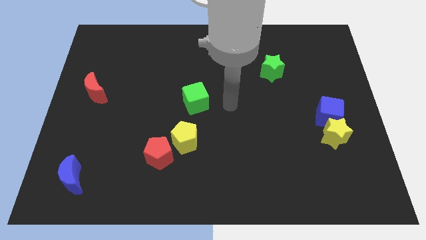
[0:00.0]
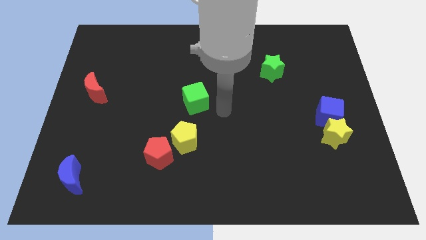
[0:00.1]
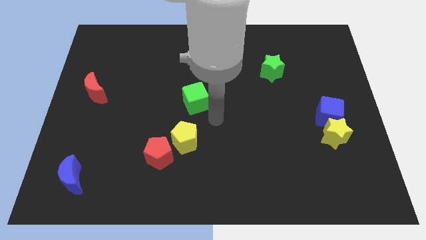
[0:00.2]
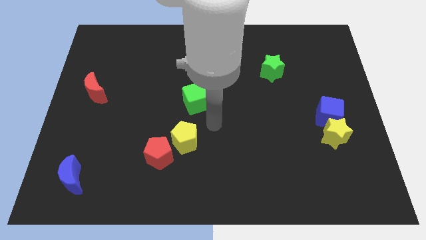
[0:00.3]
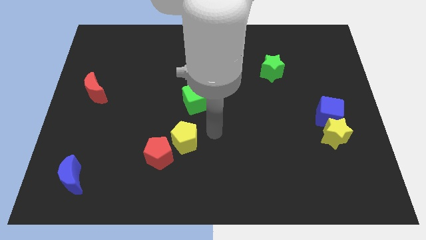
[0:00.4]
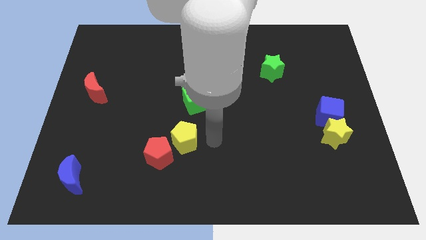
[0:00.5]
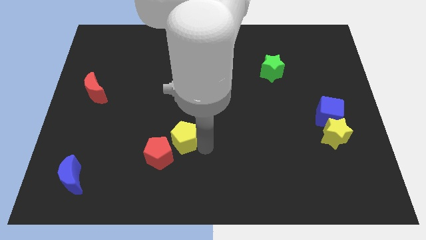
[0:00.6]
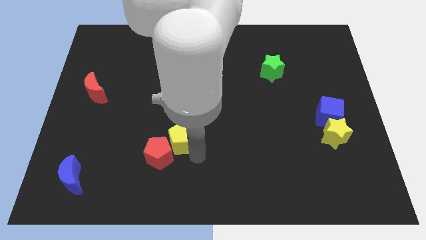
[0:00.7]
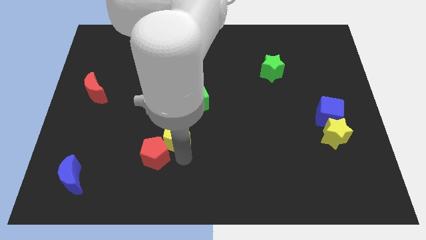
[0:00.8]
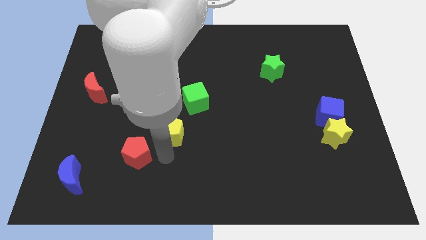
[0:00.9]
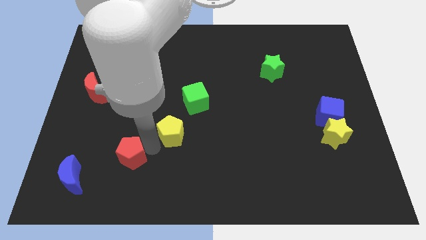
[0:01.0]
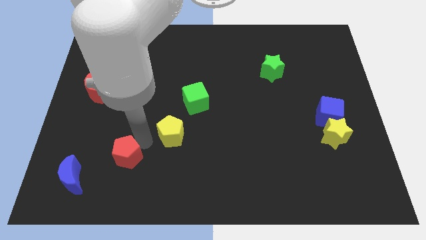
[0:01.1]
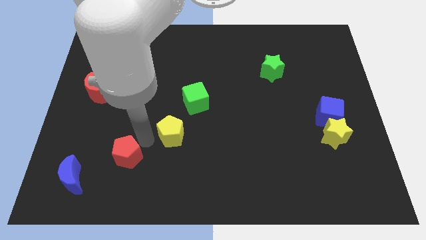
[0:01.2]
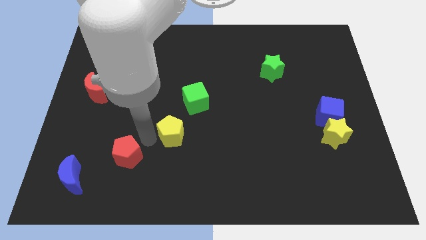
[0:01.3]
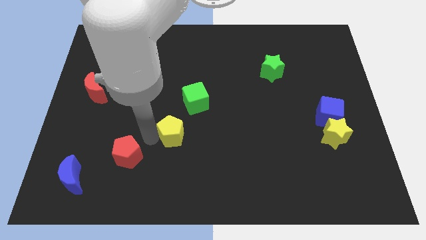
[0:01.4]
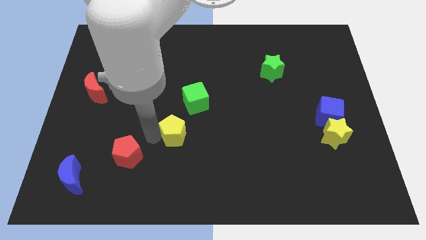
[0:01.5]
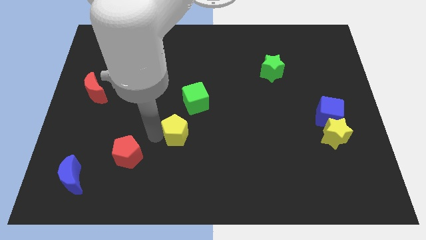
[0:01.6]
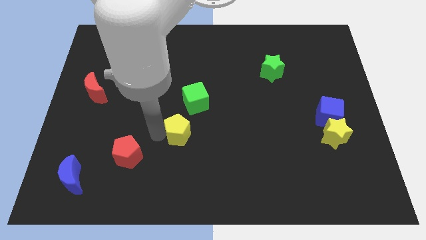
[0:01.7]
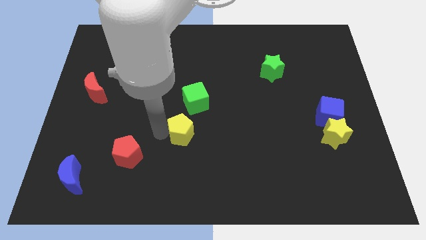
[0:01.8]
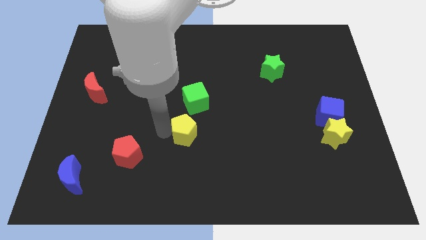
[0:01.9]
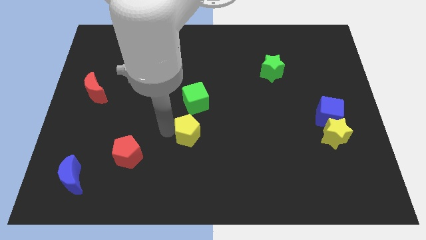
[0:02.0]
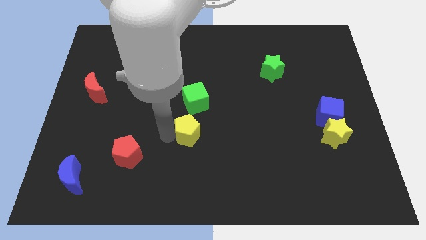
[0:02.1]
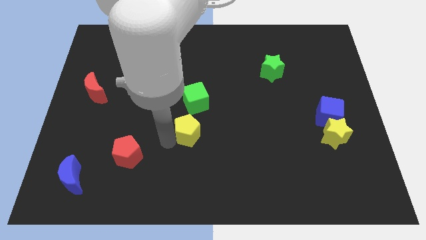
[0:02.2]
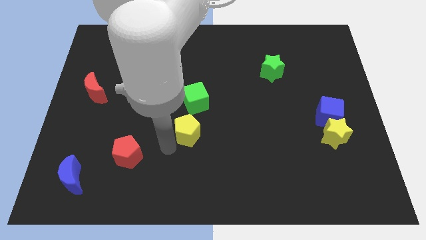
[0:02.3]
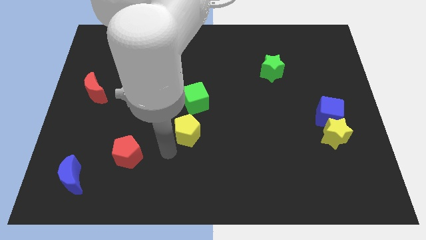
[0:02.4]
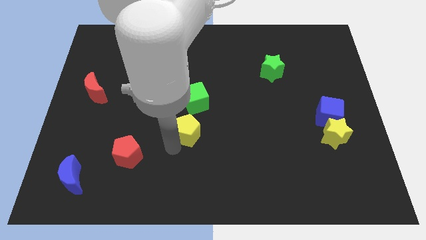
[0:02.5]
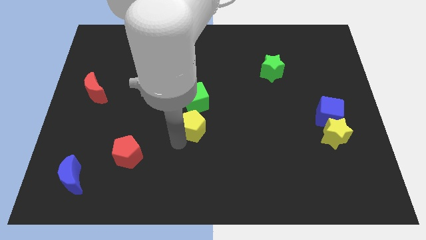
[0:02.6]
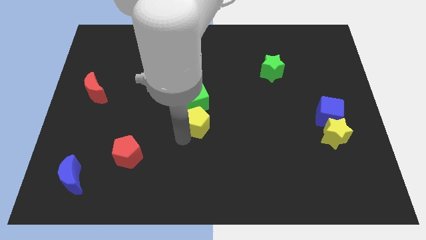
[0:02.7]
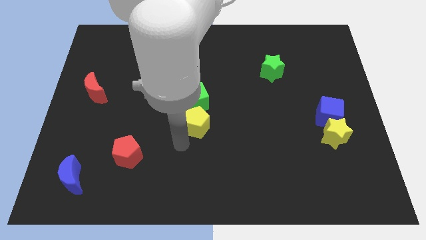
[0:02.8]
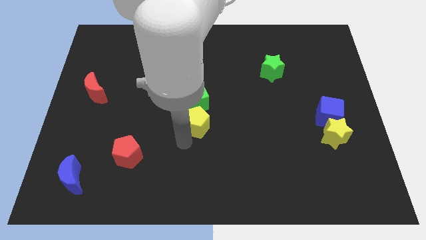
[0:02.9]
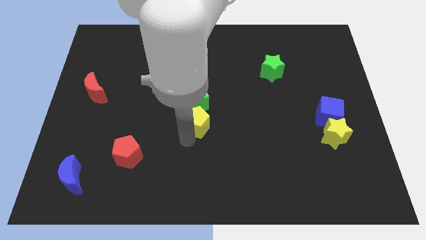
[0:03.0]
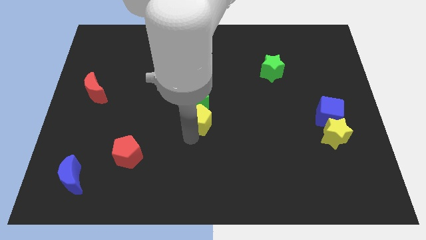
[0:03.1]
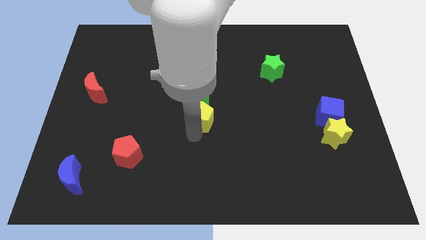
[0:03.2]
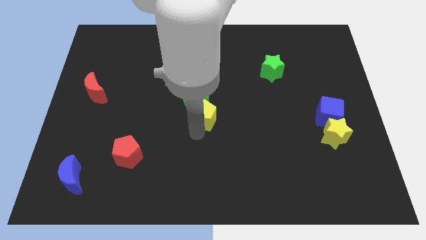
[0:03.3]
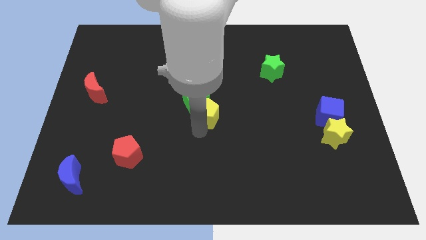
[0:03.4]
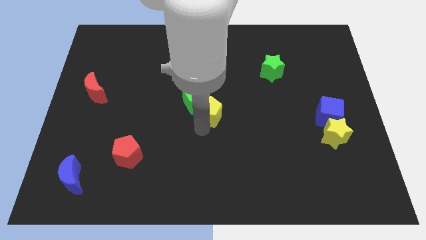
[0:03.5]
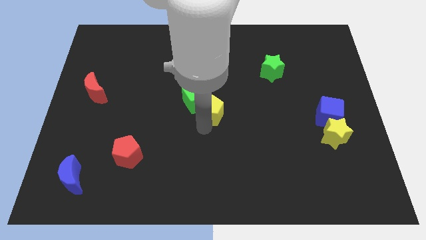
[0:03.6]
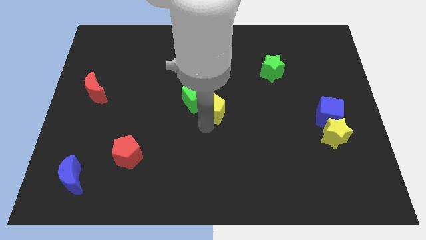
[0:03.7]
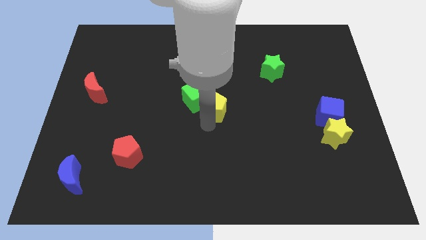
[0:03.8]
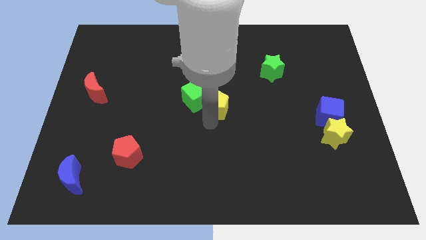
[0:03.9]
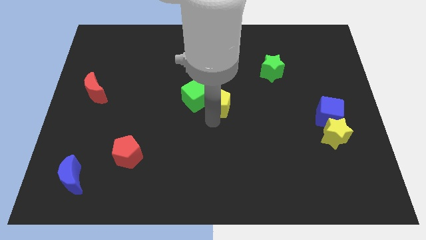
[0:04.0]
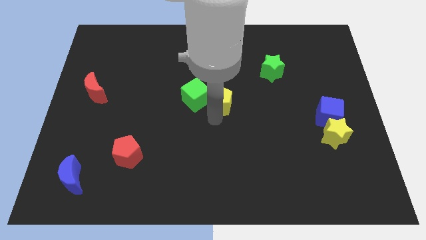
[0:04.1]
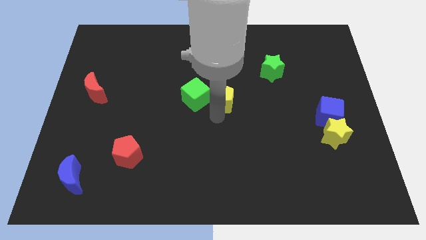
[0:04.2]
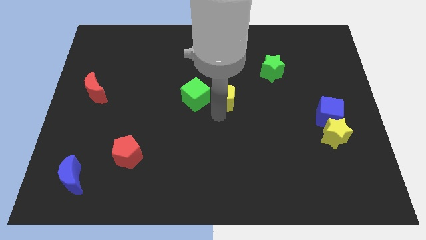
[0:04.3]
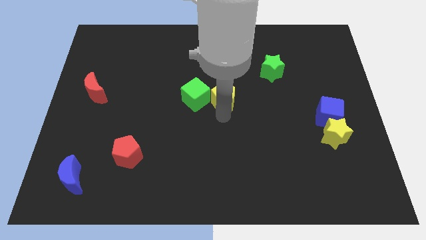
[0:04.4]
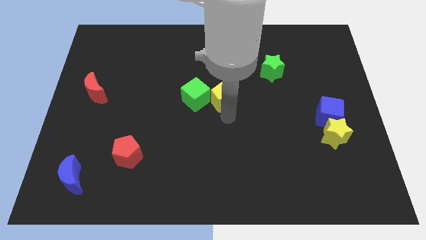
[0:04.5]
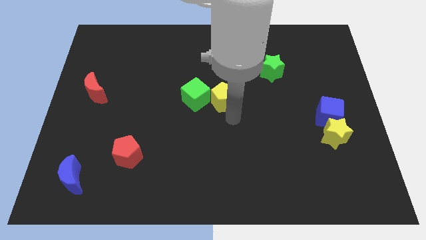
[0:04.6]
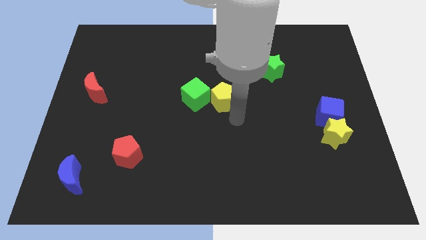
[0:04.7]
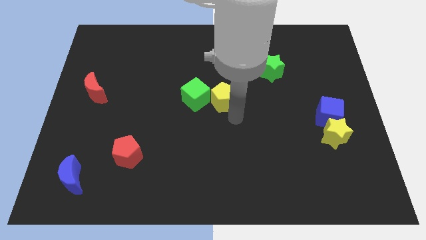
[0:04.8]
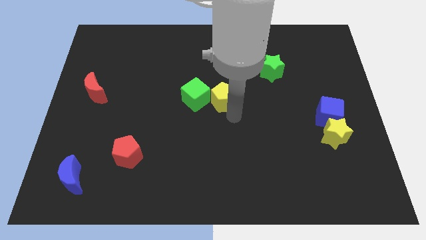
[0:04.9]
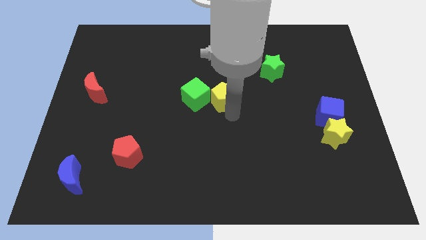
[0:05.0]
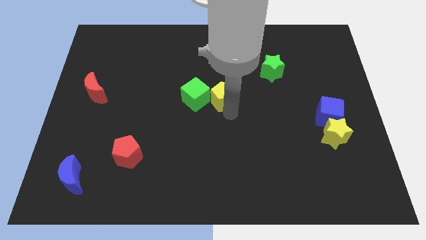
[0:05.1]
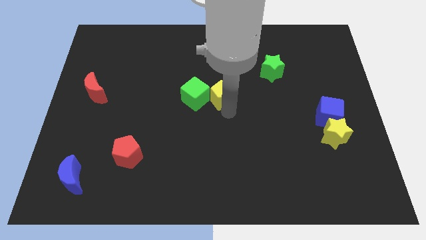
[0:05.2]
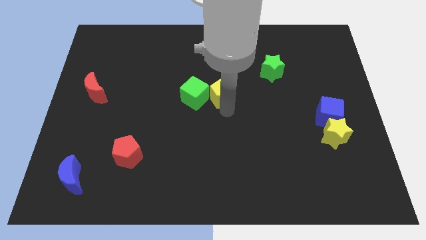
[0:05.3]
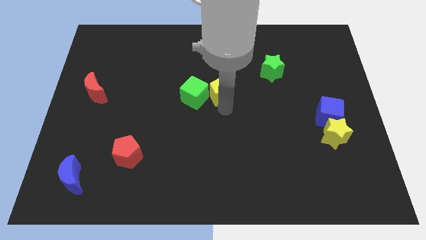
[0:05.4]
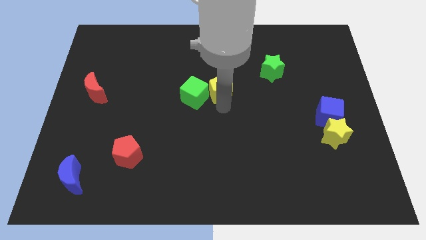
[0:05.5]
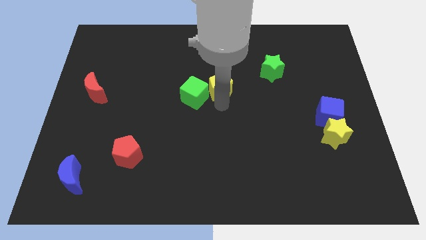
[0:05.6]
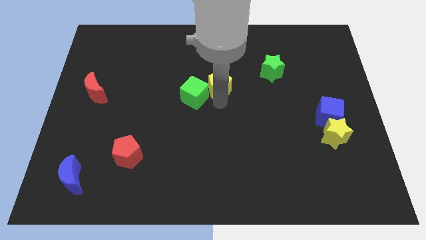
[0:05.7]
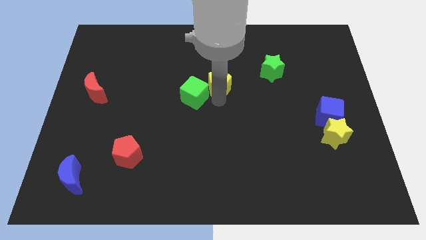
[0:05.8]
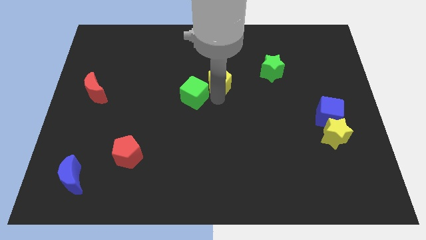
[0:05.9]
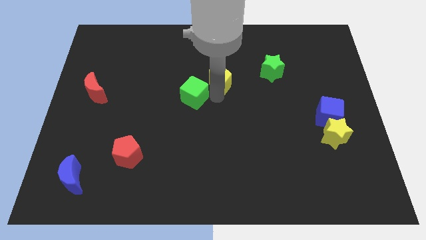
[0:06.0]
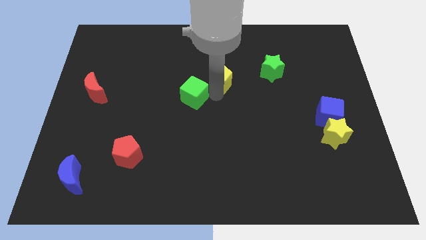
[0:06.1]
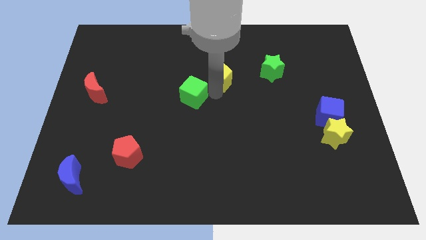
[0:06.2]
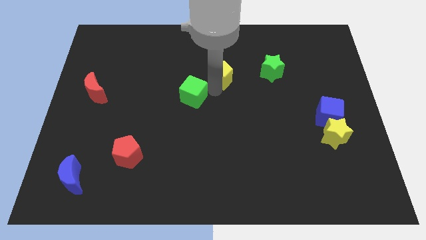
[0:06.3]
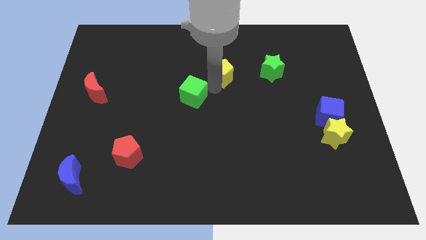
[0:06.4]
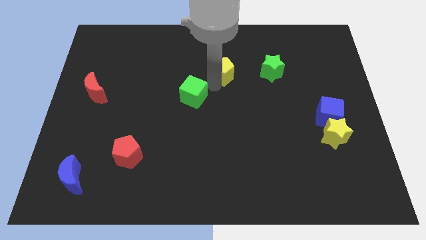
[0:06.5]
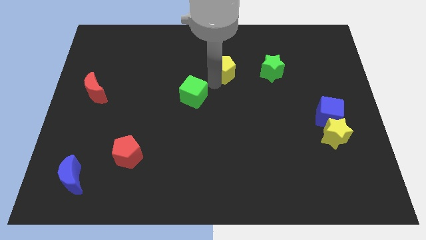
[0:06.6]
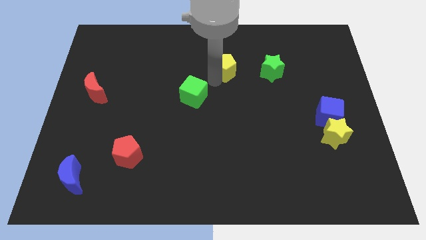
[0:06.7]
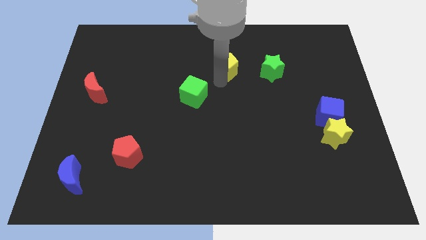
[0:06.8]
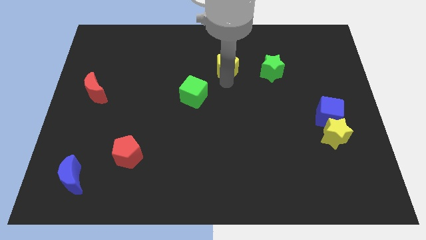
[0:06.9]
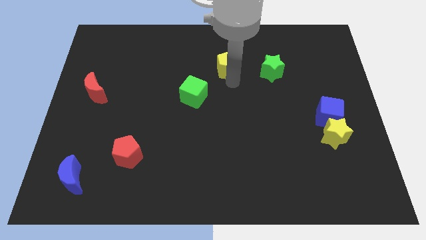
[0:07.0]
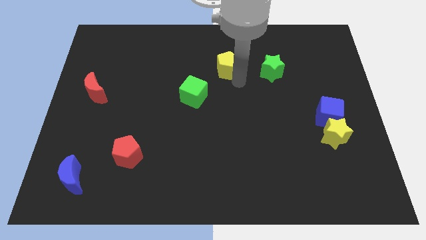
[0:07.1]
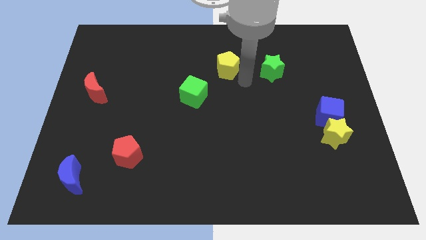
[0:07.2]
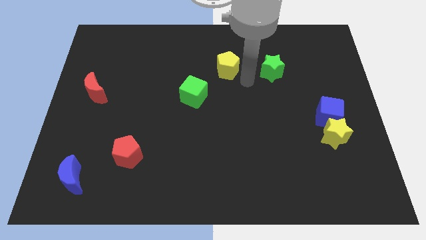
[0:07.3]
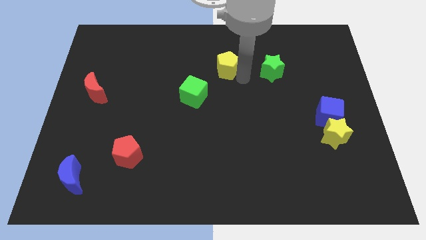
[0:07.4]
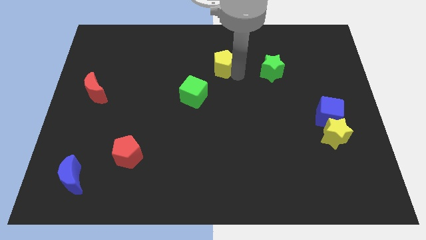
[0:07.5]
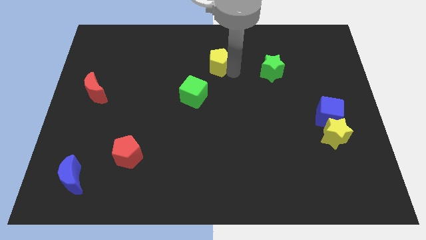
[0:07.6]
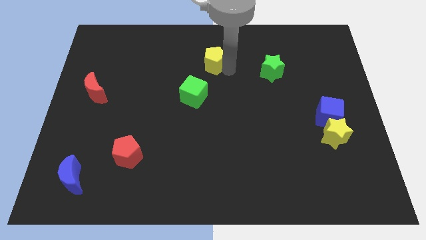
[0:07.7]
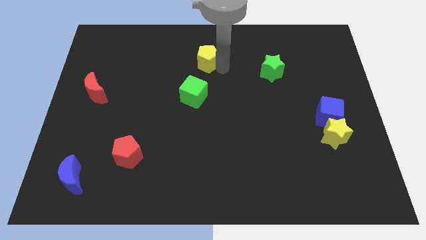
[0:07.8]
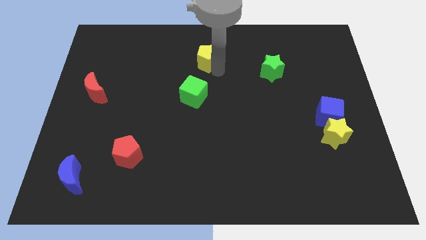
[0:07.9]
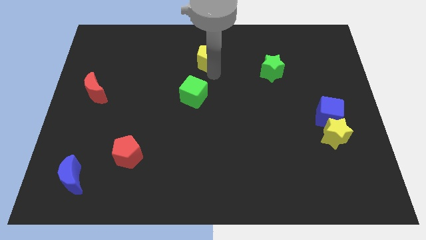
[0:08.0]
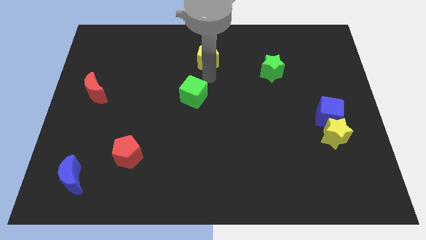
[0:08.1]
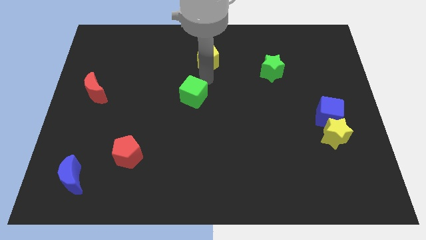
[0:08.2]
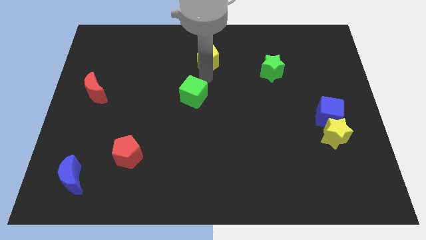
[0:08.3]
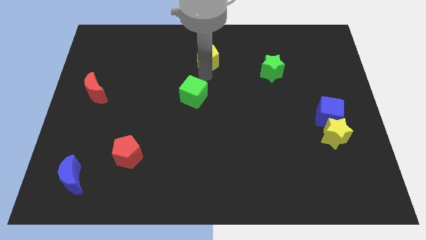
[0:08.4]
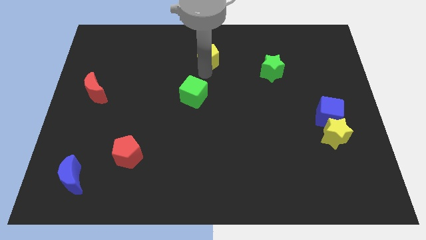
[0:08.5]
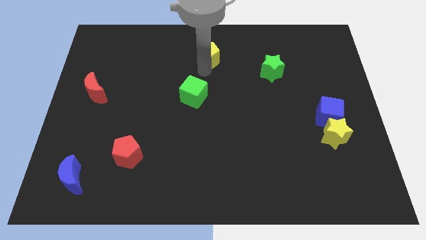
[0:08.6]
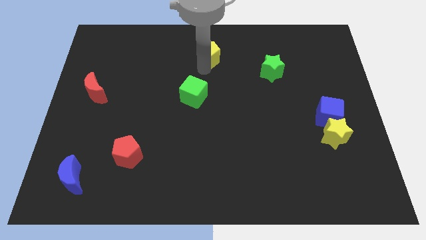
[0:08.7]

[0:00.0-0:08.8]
move the yellow pentagon to the top side
